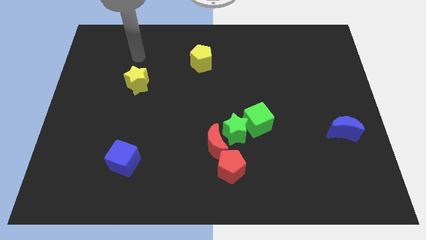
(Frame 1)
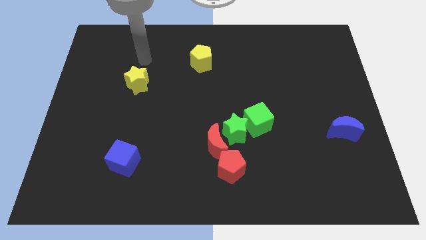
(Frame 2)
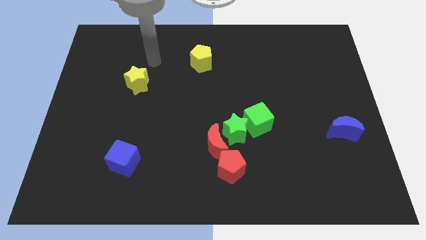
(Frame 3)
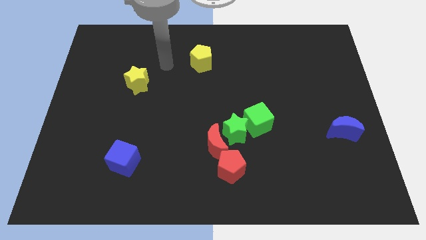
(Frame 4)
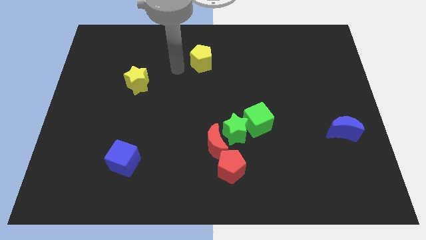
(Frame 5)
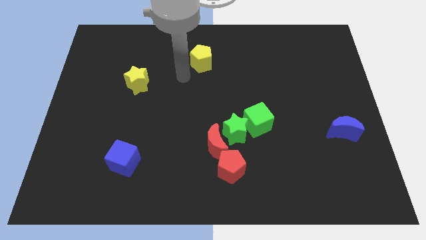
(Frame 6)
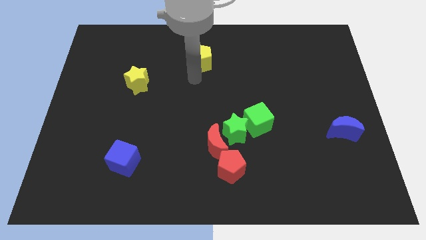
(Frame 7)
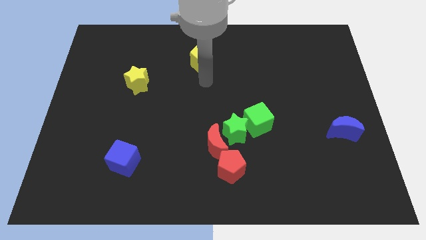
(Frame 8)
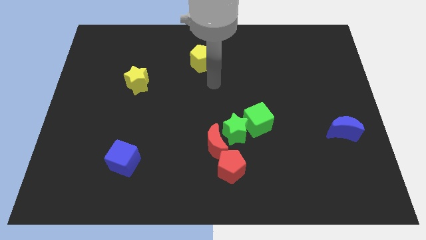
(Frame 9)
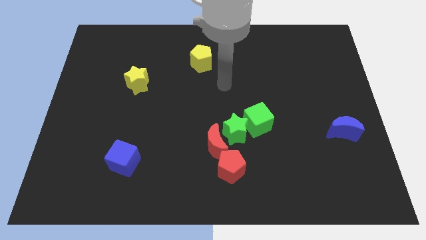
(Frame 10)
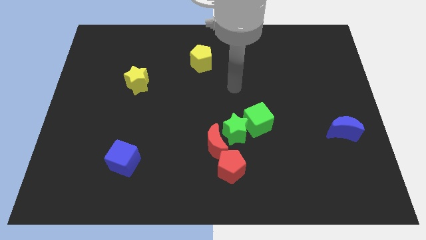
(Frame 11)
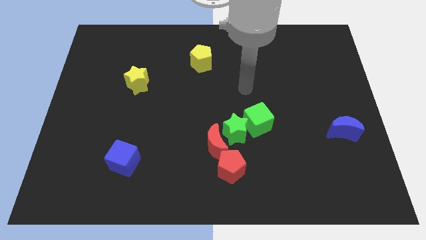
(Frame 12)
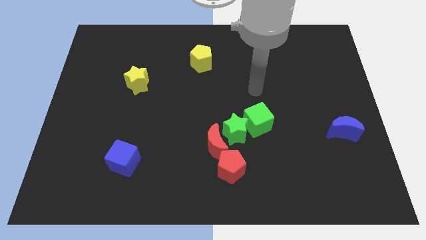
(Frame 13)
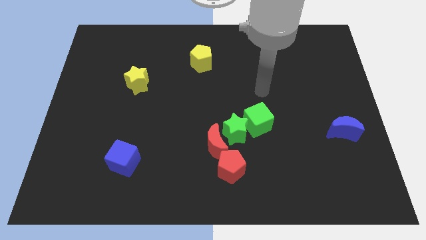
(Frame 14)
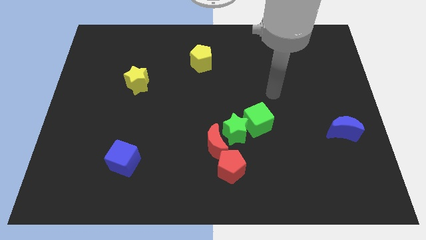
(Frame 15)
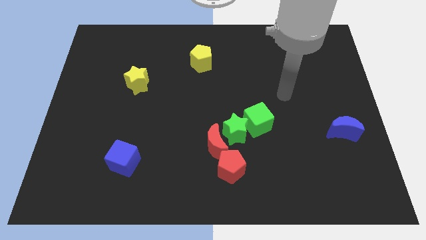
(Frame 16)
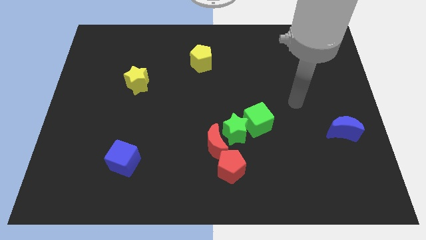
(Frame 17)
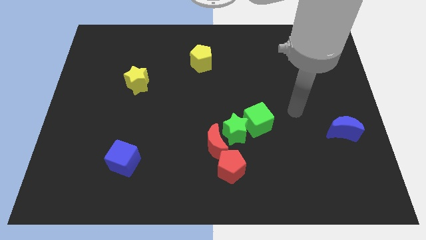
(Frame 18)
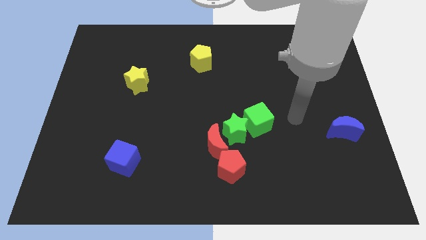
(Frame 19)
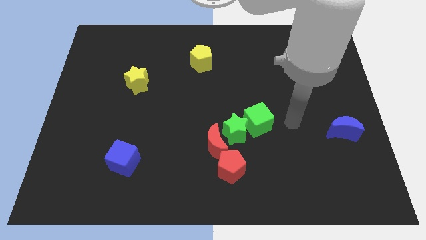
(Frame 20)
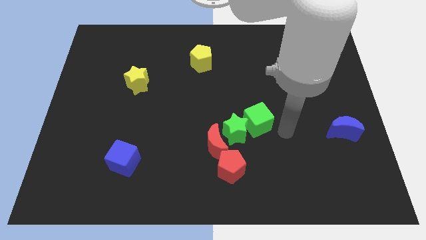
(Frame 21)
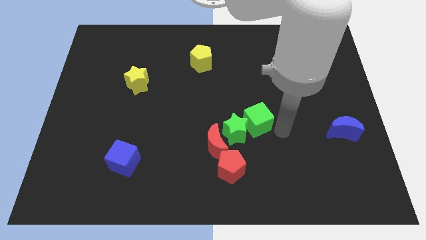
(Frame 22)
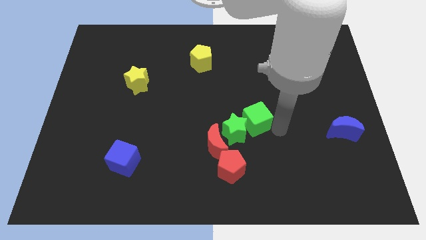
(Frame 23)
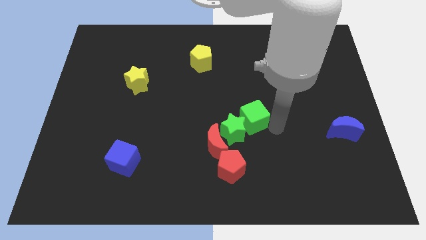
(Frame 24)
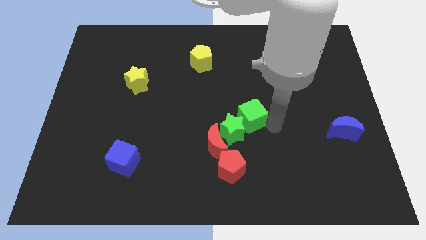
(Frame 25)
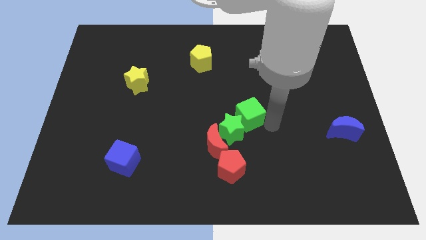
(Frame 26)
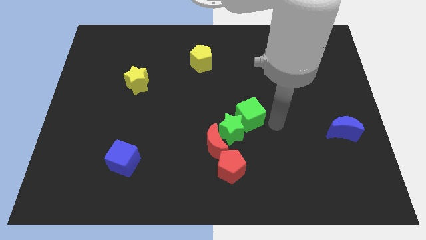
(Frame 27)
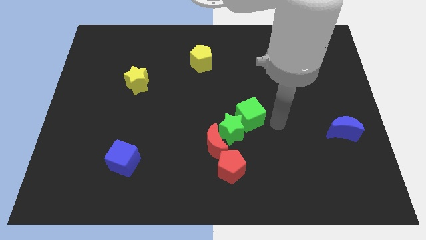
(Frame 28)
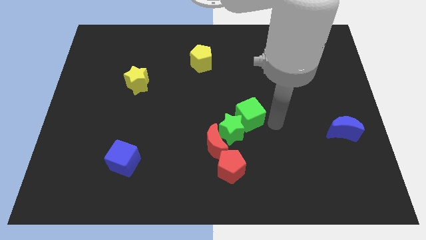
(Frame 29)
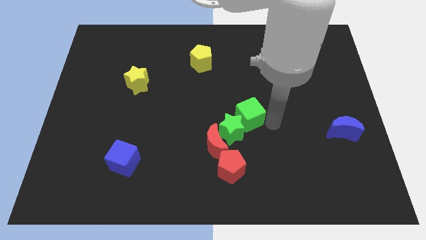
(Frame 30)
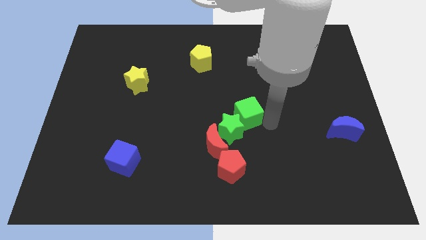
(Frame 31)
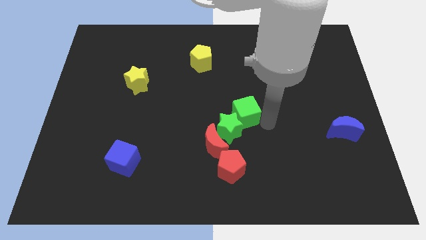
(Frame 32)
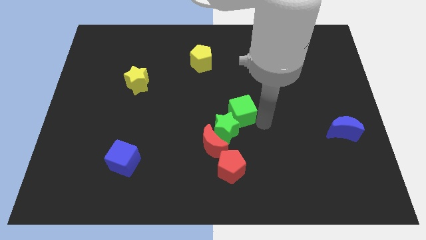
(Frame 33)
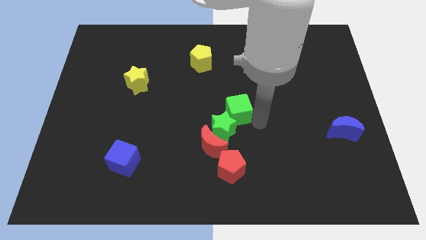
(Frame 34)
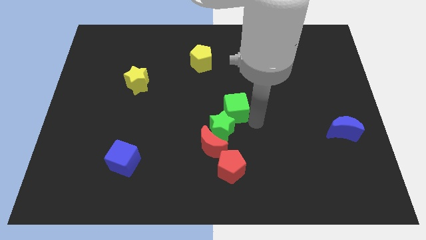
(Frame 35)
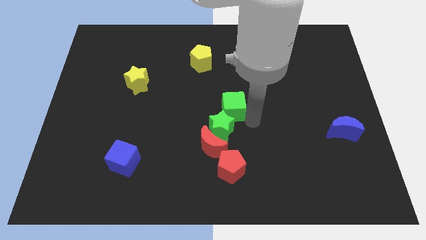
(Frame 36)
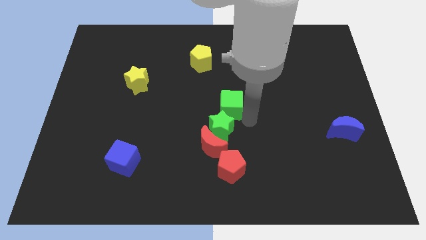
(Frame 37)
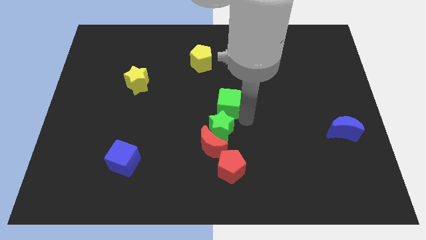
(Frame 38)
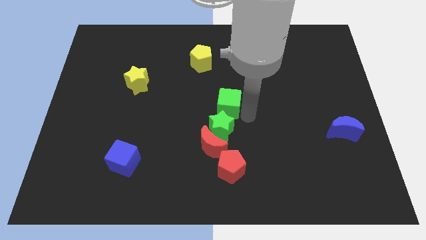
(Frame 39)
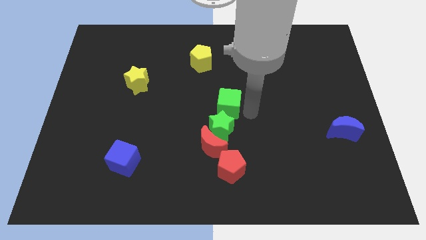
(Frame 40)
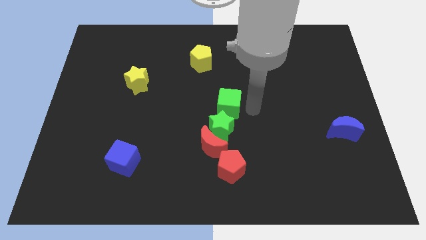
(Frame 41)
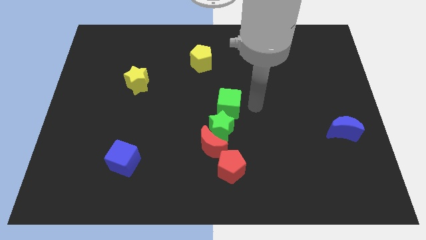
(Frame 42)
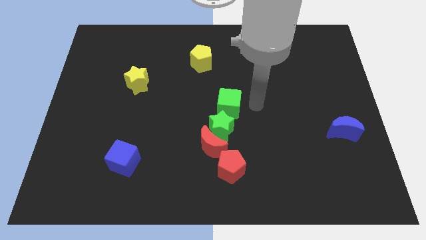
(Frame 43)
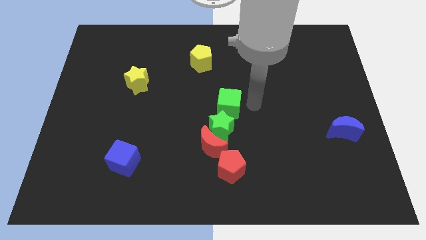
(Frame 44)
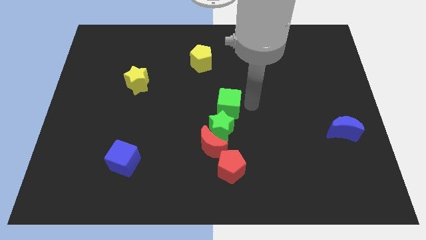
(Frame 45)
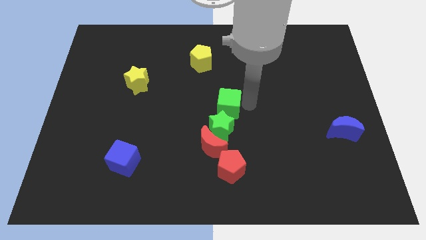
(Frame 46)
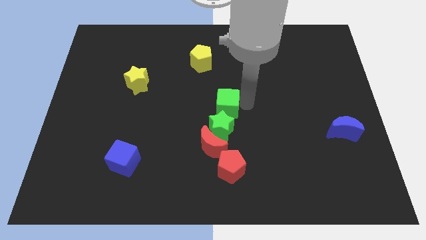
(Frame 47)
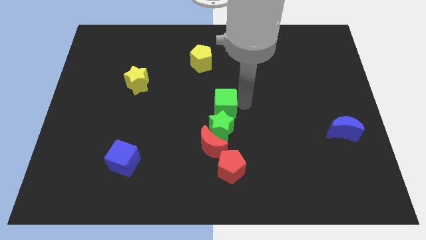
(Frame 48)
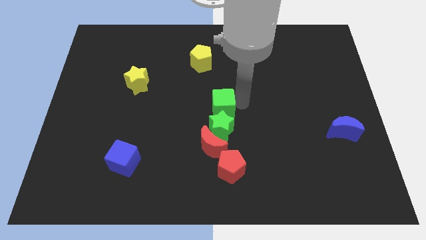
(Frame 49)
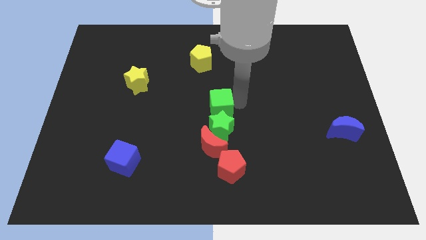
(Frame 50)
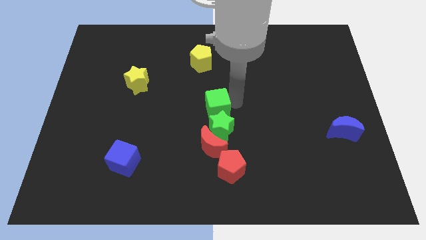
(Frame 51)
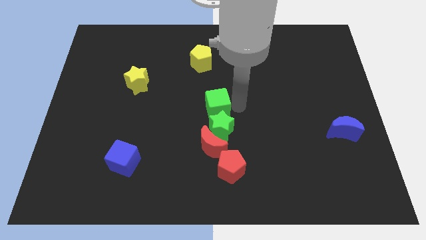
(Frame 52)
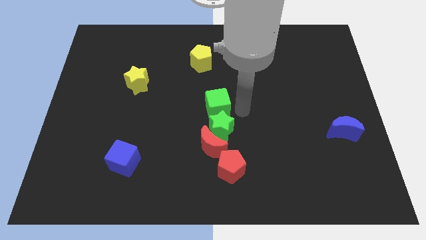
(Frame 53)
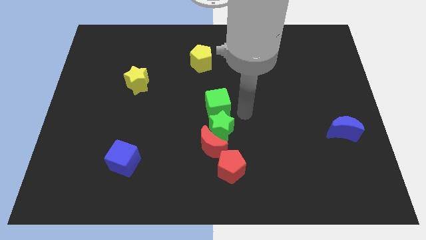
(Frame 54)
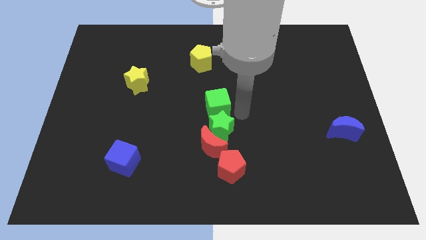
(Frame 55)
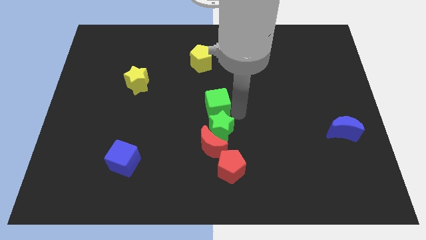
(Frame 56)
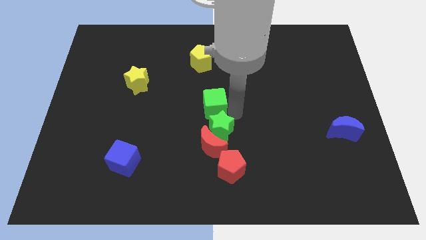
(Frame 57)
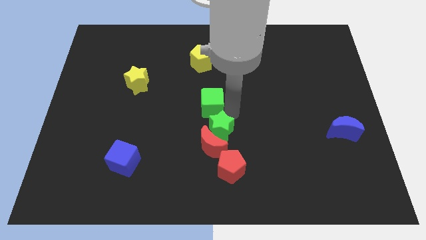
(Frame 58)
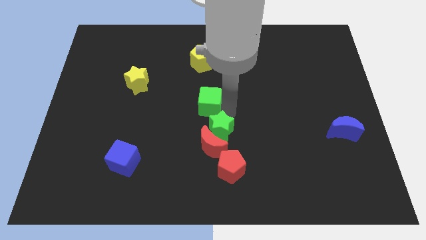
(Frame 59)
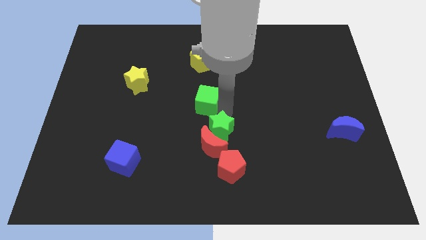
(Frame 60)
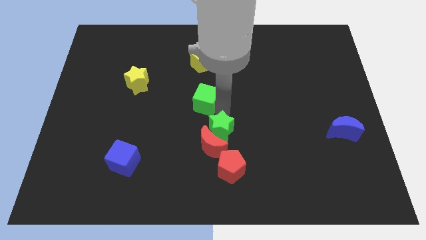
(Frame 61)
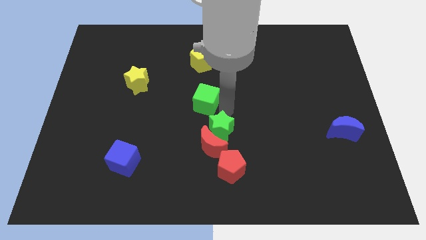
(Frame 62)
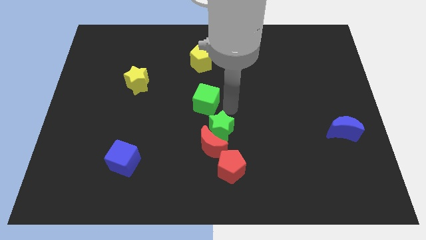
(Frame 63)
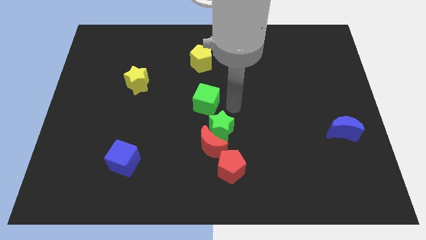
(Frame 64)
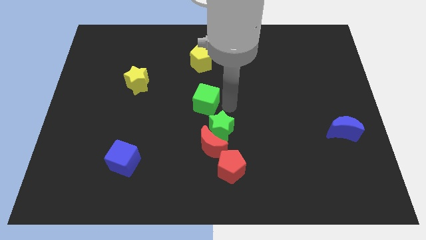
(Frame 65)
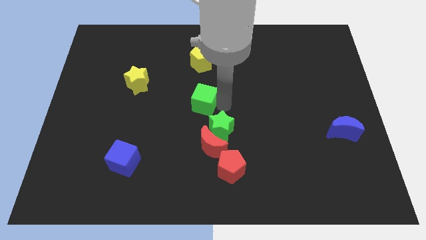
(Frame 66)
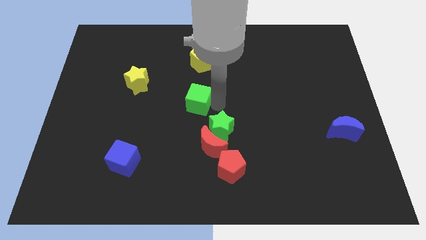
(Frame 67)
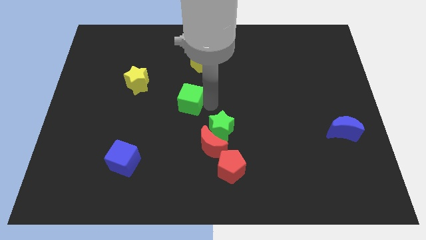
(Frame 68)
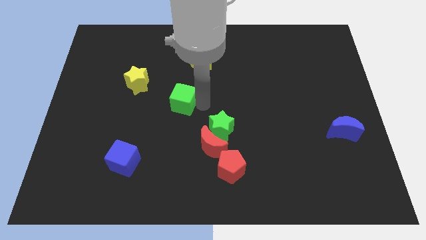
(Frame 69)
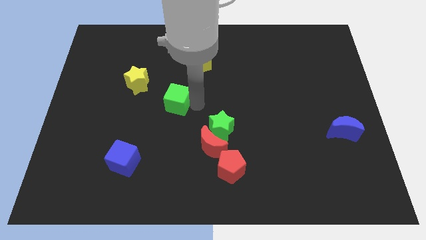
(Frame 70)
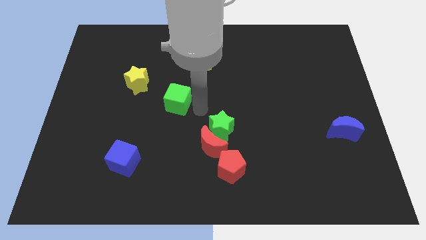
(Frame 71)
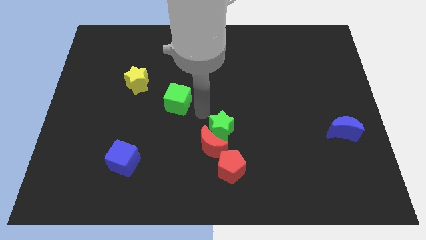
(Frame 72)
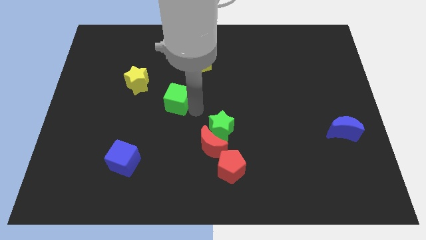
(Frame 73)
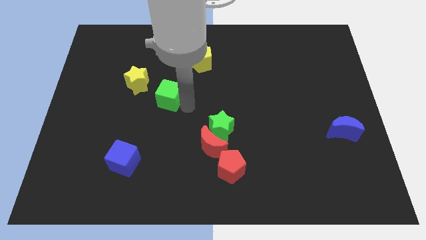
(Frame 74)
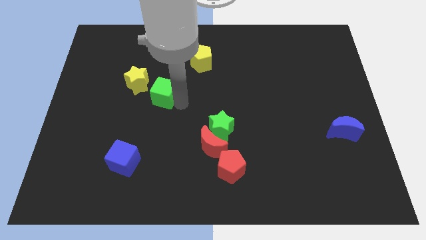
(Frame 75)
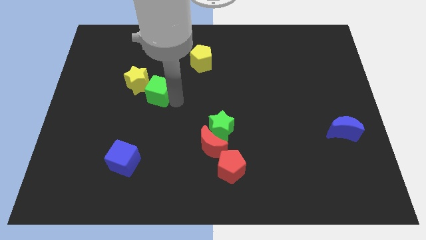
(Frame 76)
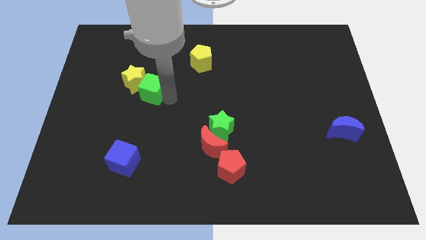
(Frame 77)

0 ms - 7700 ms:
push the green cube towards the yellow star

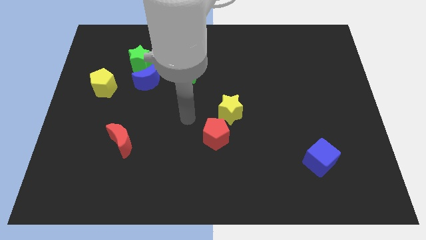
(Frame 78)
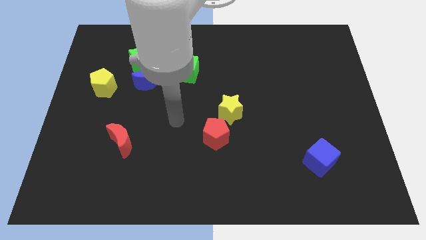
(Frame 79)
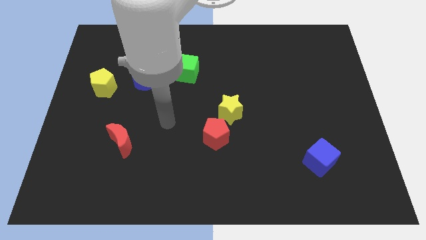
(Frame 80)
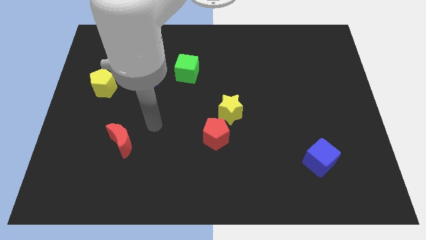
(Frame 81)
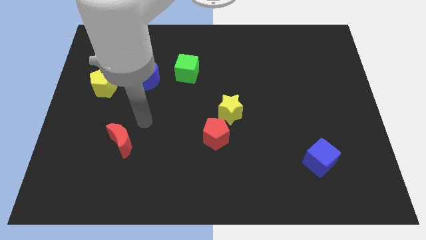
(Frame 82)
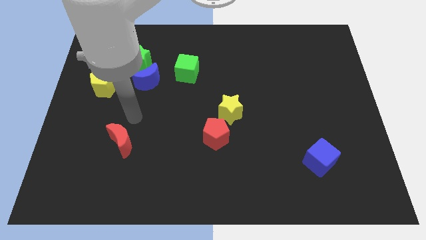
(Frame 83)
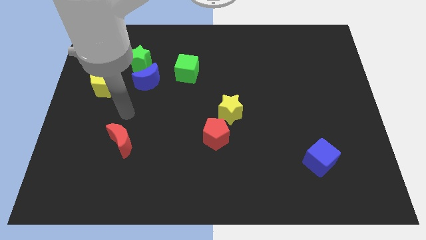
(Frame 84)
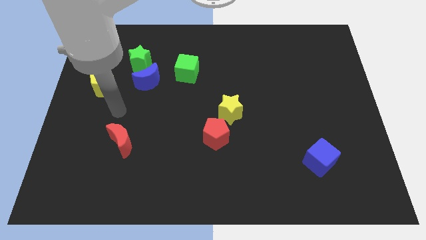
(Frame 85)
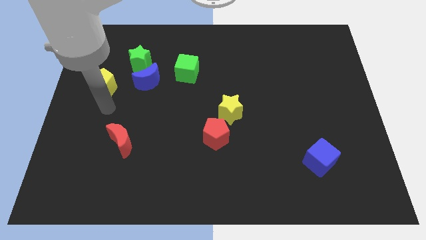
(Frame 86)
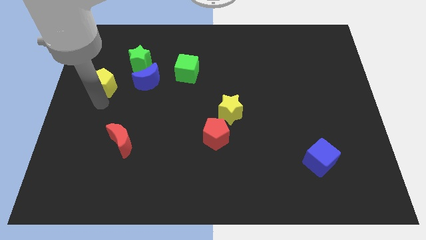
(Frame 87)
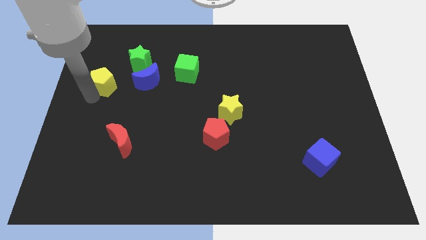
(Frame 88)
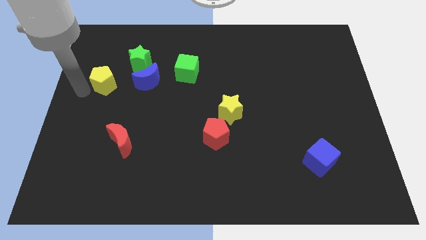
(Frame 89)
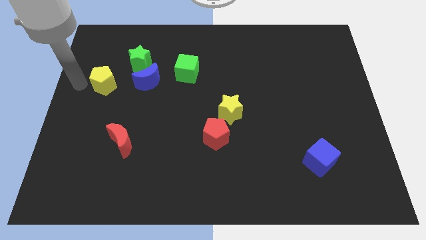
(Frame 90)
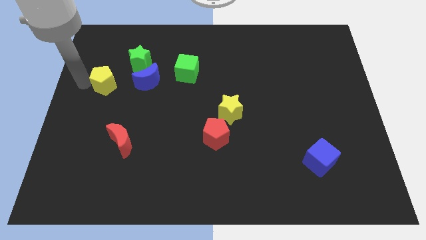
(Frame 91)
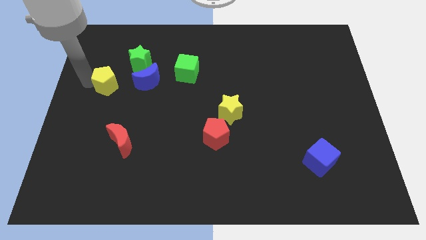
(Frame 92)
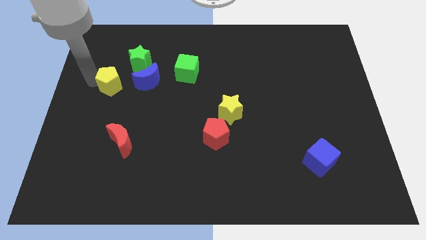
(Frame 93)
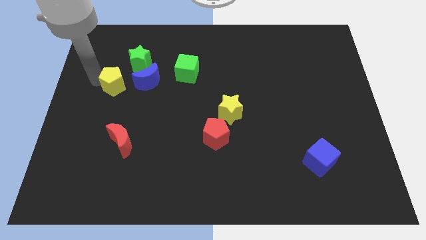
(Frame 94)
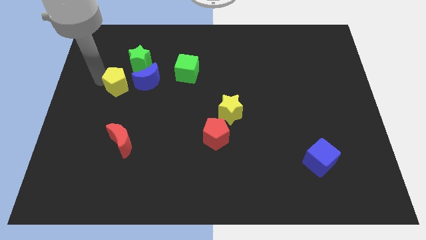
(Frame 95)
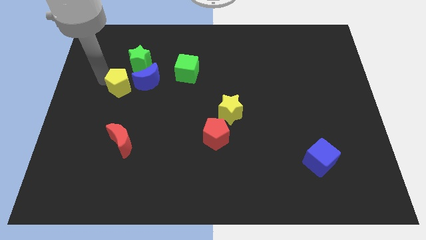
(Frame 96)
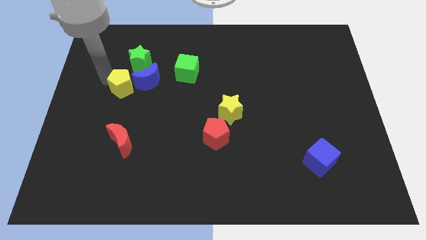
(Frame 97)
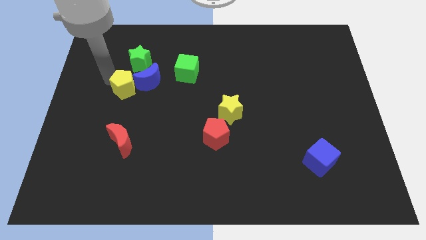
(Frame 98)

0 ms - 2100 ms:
push the yellow pentagon close to the blue moon
